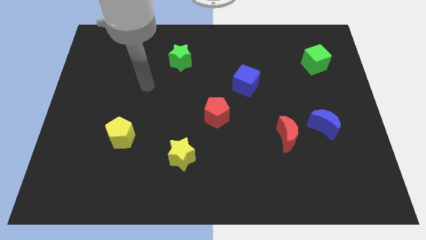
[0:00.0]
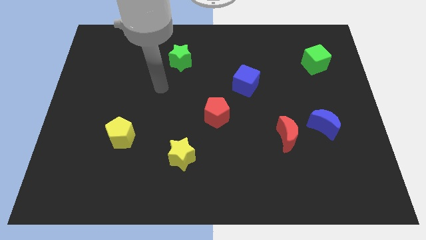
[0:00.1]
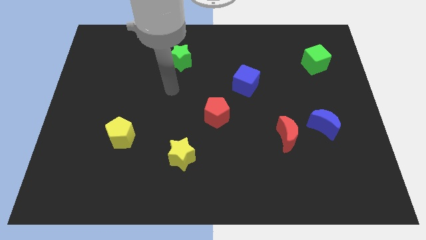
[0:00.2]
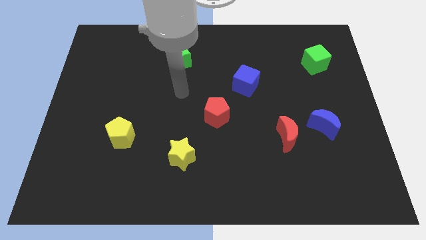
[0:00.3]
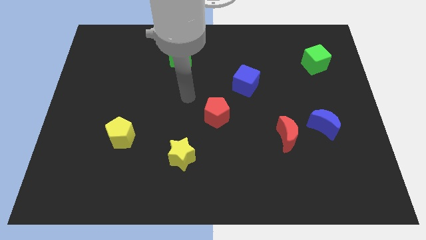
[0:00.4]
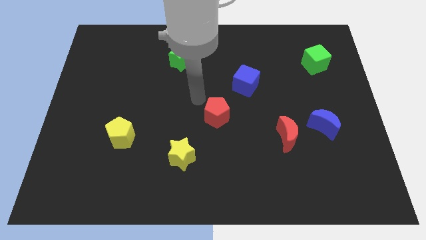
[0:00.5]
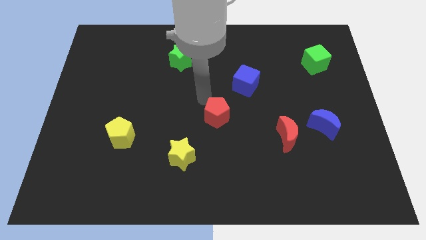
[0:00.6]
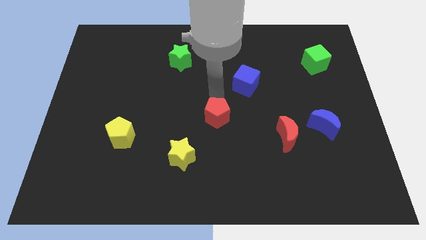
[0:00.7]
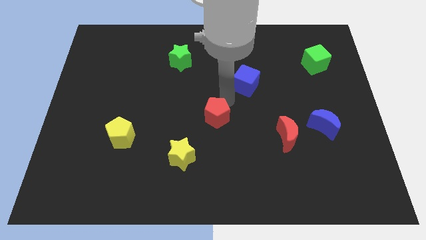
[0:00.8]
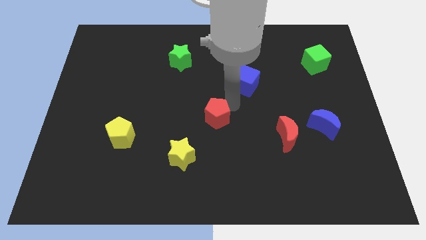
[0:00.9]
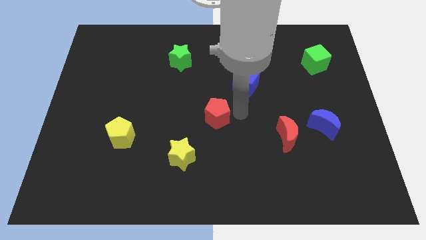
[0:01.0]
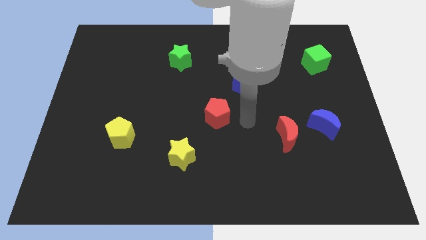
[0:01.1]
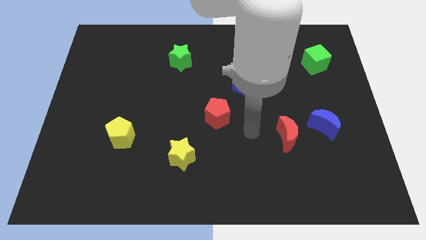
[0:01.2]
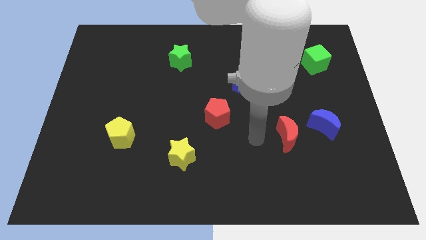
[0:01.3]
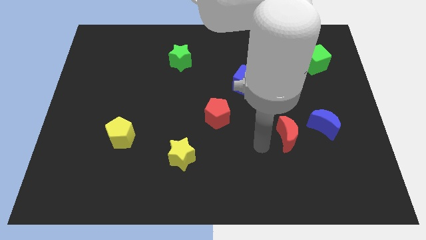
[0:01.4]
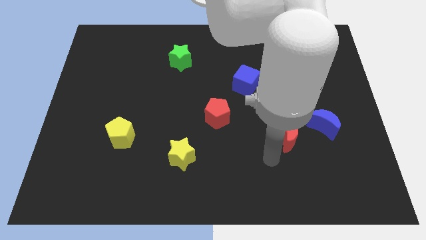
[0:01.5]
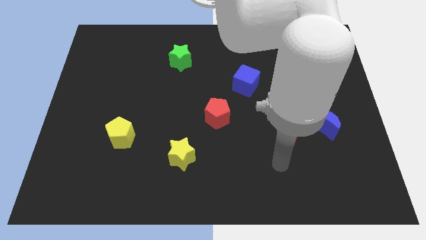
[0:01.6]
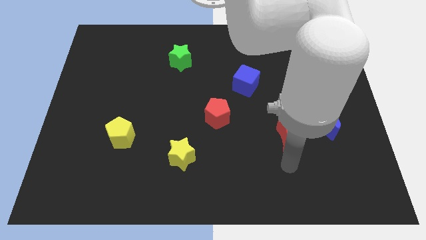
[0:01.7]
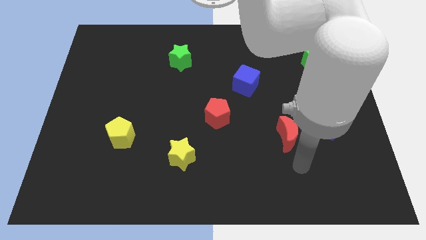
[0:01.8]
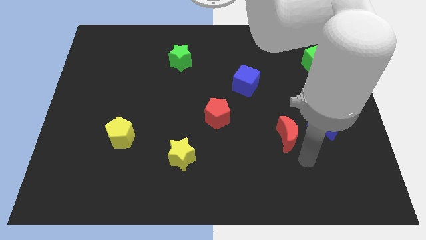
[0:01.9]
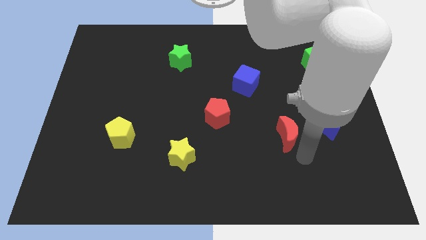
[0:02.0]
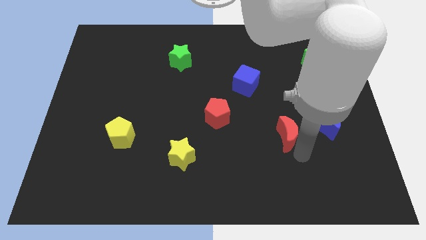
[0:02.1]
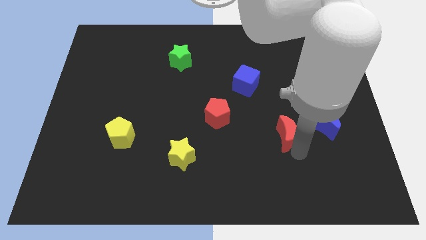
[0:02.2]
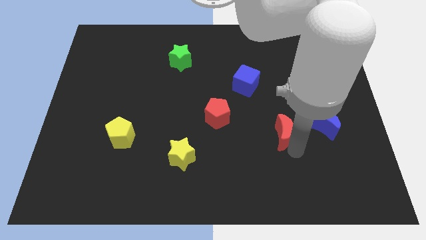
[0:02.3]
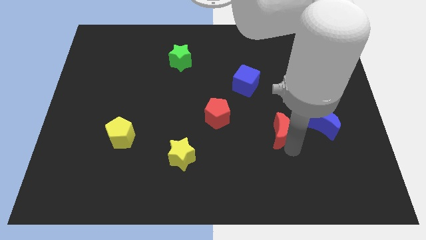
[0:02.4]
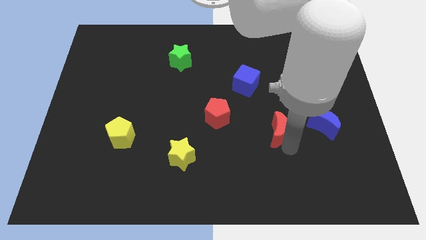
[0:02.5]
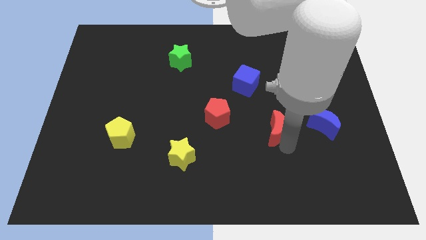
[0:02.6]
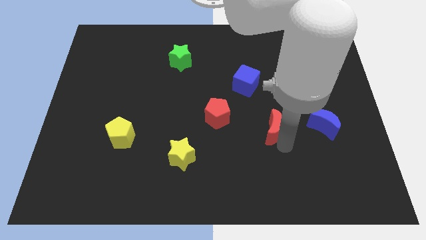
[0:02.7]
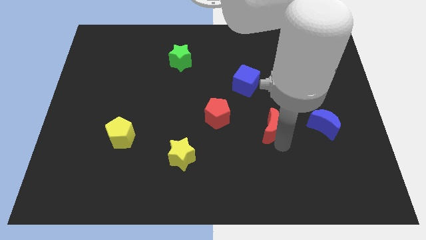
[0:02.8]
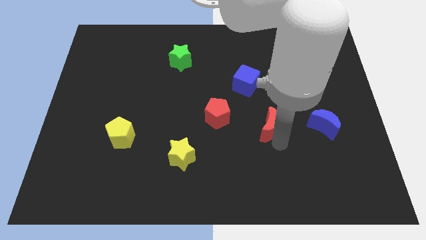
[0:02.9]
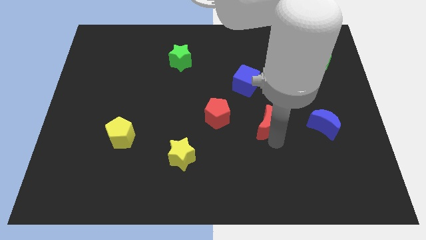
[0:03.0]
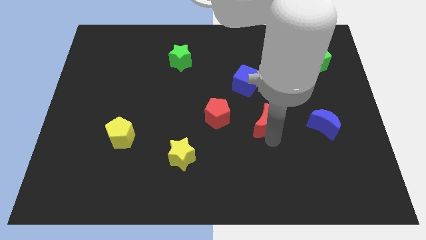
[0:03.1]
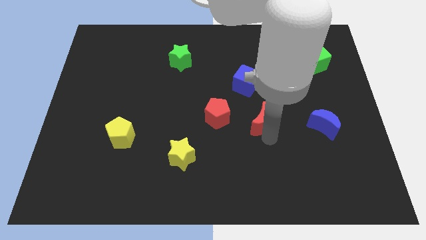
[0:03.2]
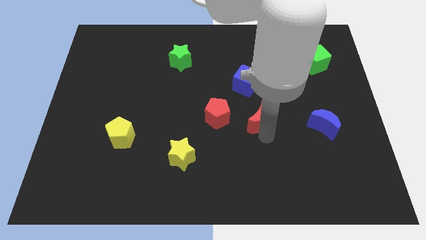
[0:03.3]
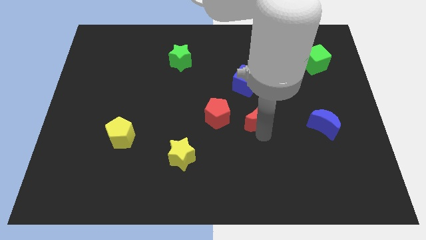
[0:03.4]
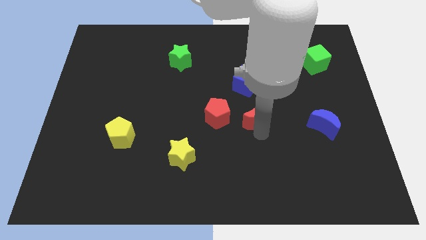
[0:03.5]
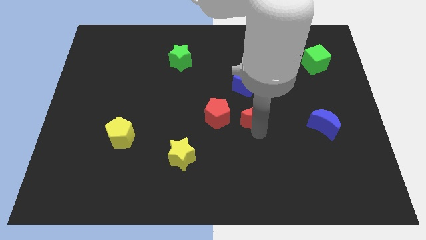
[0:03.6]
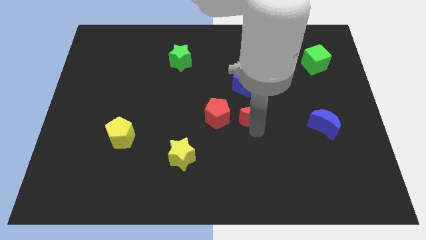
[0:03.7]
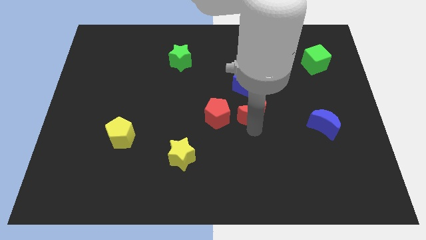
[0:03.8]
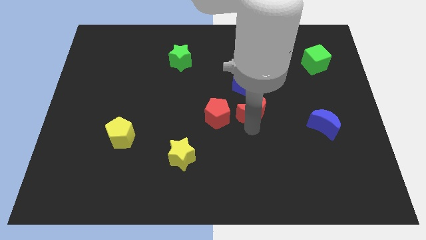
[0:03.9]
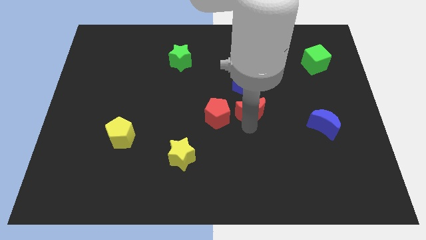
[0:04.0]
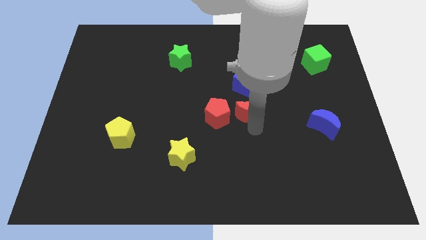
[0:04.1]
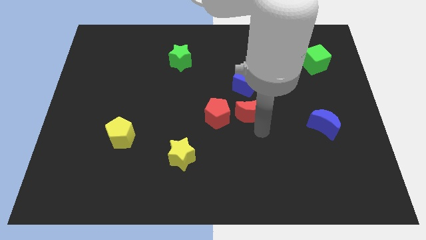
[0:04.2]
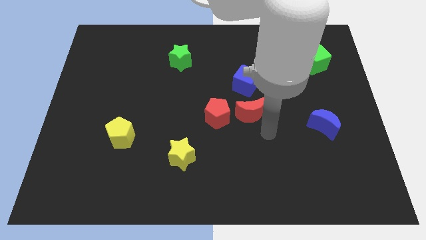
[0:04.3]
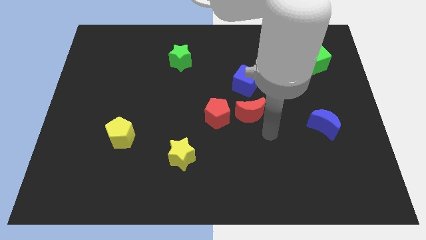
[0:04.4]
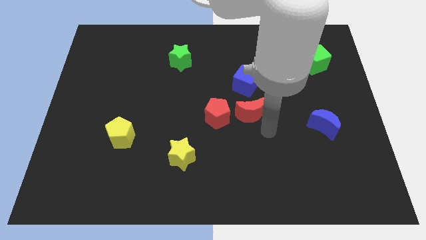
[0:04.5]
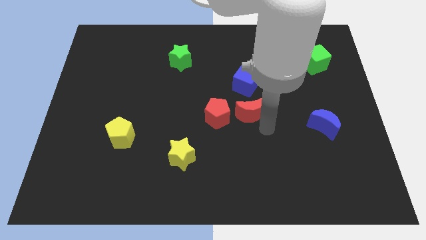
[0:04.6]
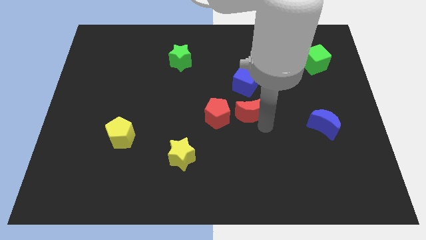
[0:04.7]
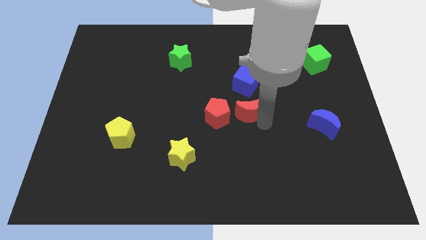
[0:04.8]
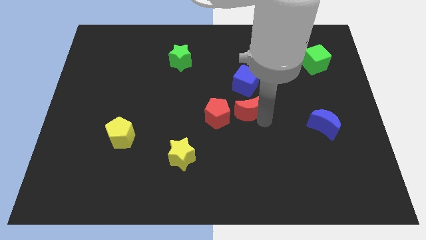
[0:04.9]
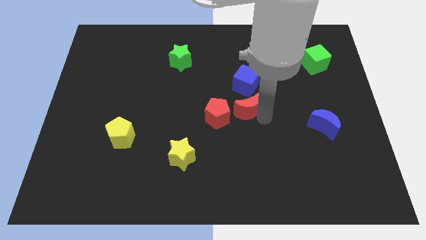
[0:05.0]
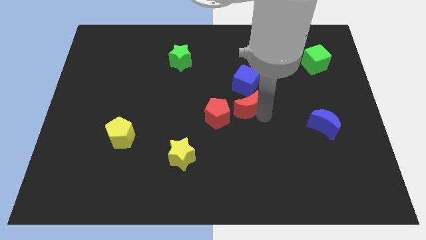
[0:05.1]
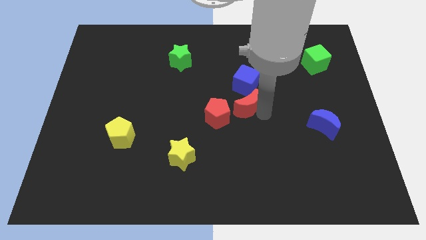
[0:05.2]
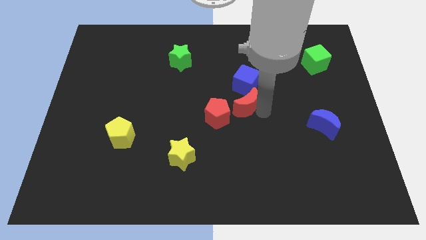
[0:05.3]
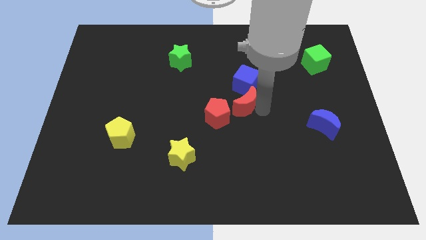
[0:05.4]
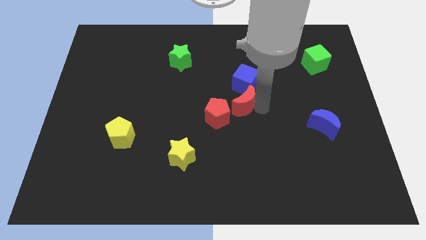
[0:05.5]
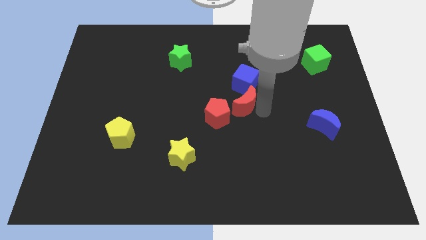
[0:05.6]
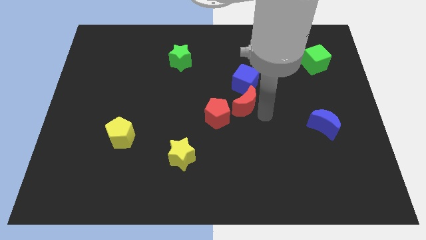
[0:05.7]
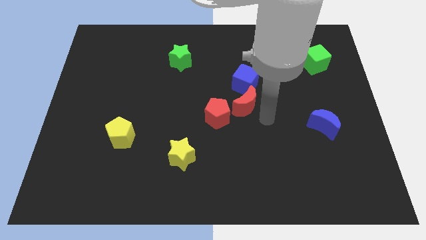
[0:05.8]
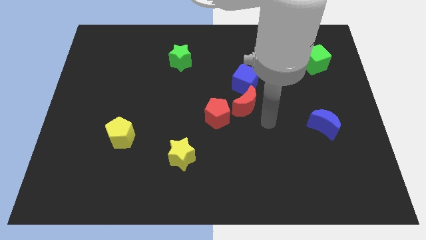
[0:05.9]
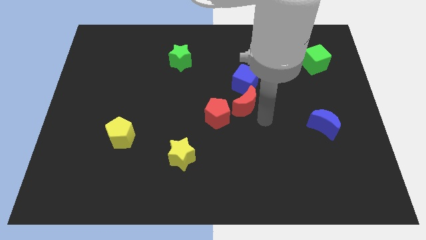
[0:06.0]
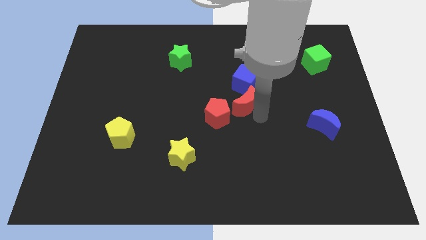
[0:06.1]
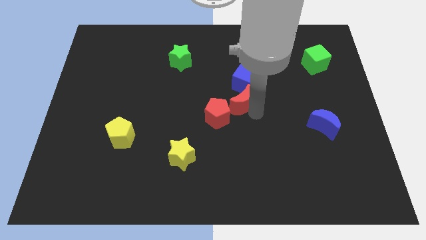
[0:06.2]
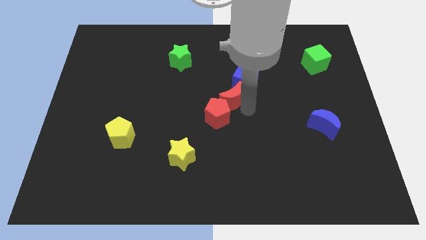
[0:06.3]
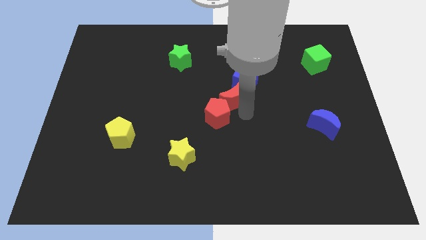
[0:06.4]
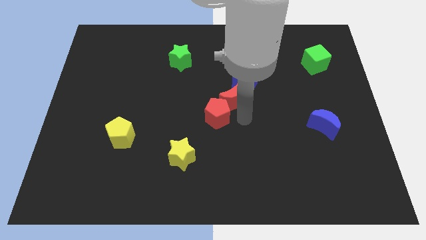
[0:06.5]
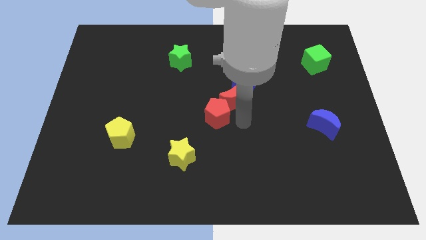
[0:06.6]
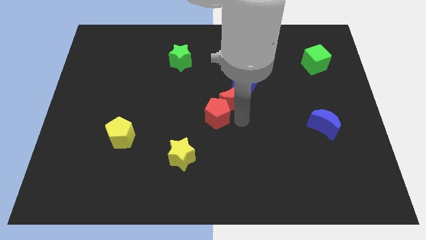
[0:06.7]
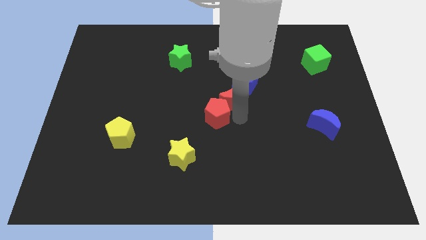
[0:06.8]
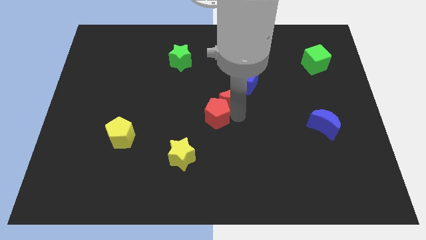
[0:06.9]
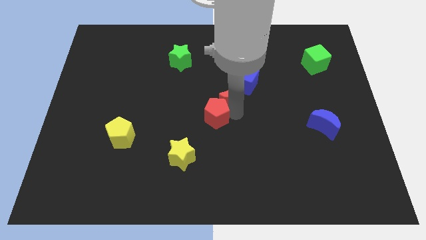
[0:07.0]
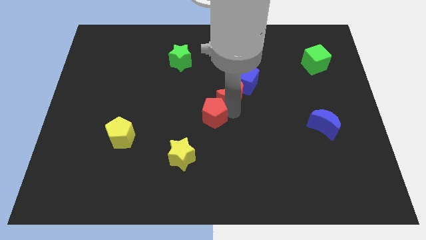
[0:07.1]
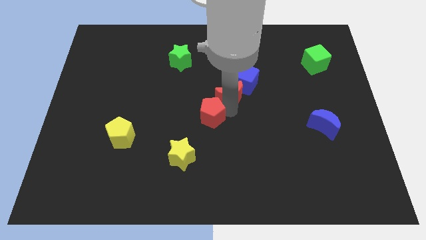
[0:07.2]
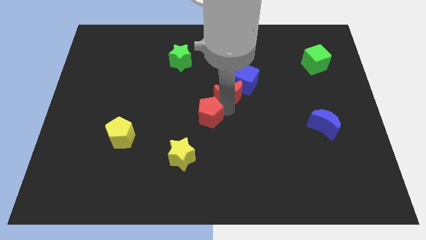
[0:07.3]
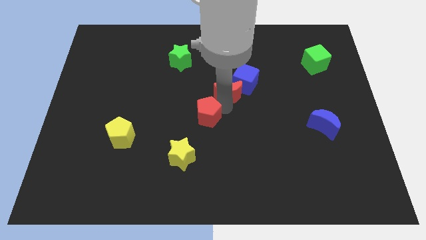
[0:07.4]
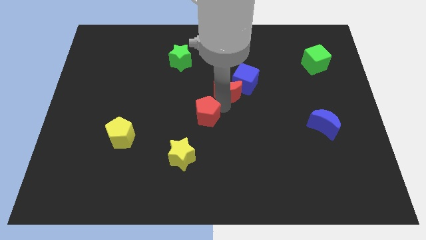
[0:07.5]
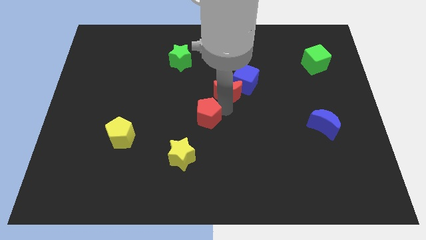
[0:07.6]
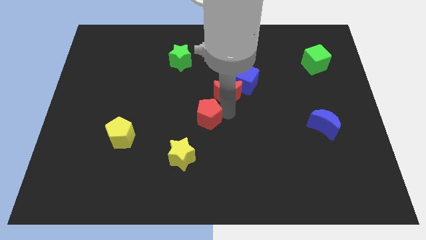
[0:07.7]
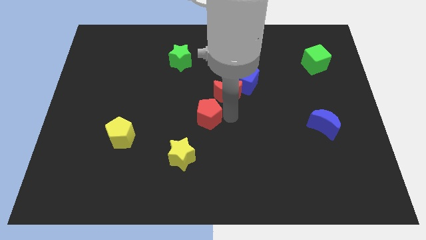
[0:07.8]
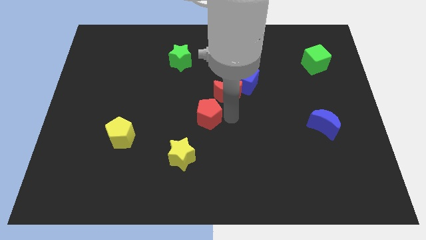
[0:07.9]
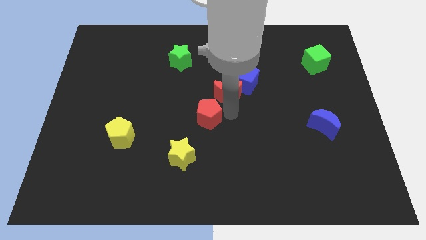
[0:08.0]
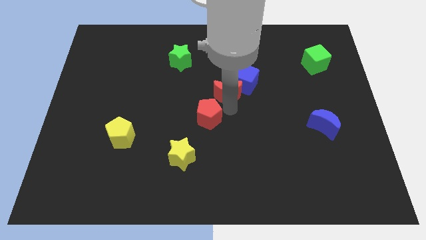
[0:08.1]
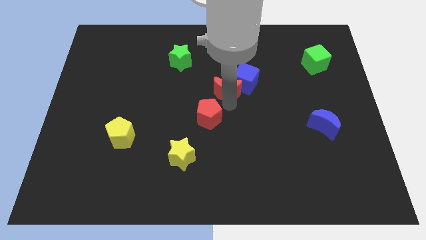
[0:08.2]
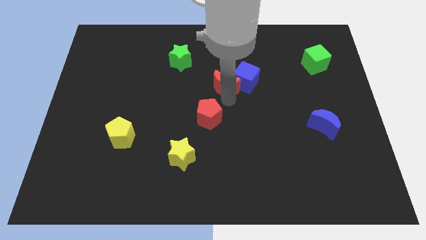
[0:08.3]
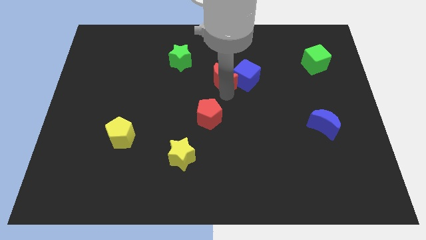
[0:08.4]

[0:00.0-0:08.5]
push the red moon to the top left of the blue cube
